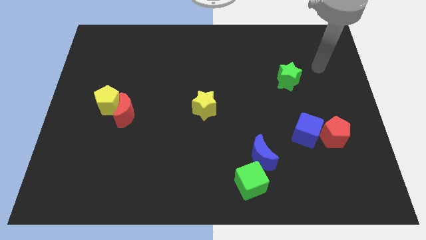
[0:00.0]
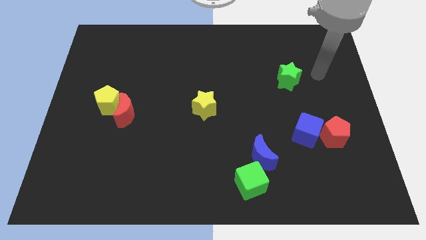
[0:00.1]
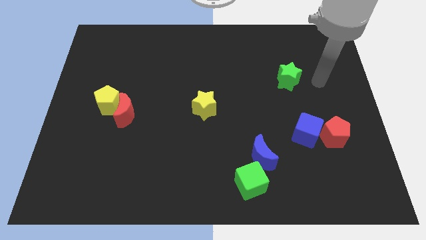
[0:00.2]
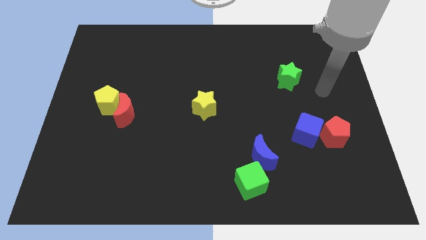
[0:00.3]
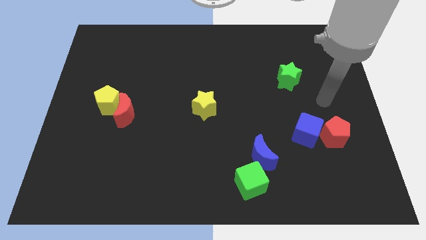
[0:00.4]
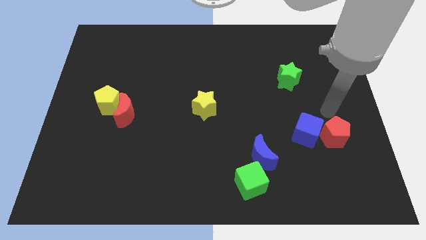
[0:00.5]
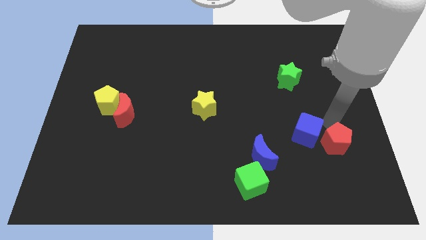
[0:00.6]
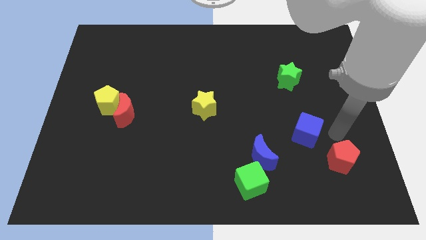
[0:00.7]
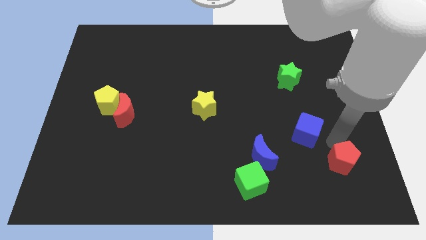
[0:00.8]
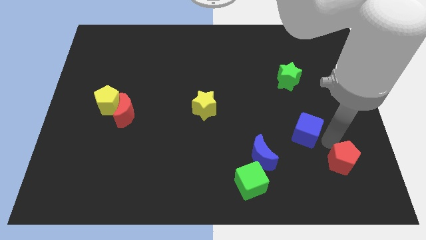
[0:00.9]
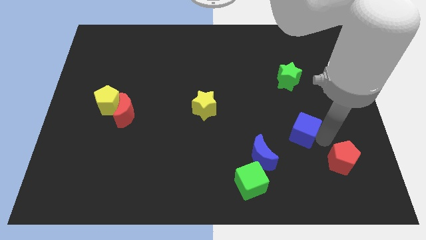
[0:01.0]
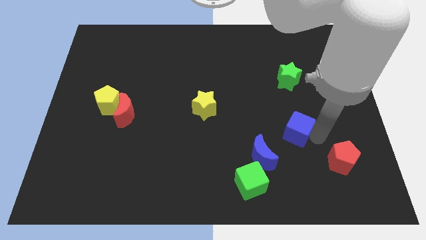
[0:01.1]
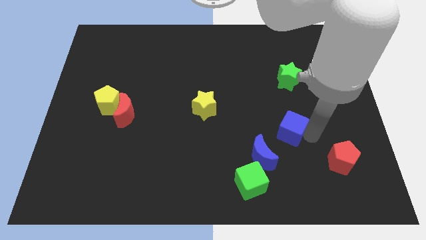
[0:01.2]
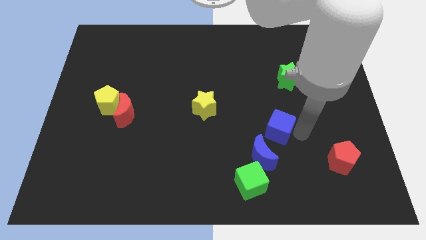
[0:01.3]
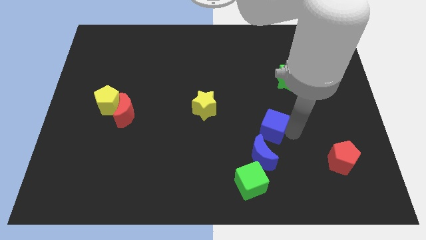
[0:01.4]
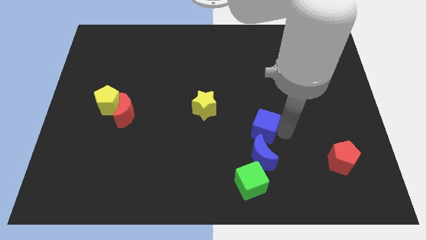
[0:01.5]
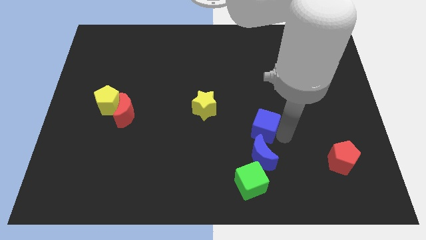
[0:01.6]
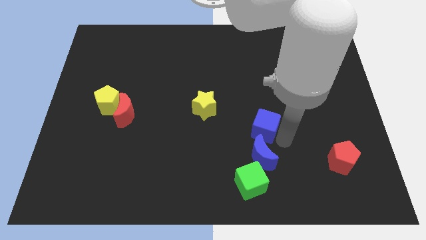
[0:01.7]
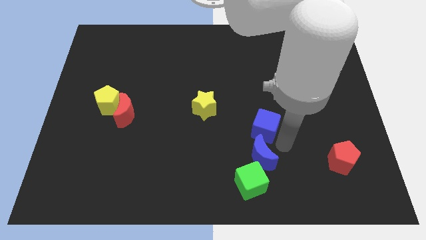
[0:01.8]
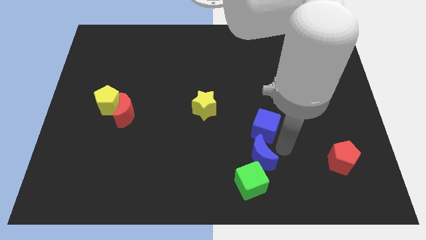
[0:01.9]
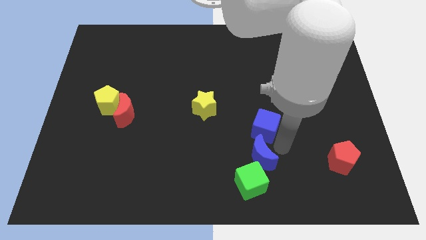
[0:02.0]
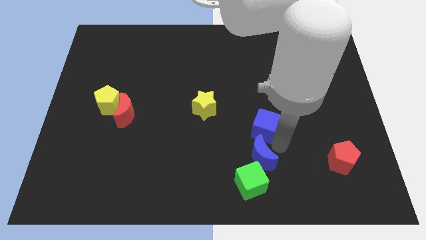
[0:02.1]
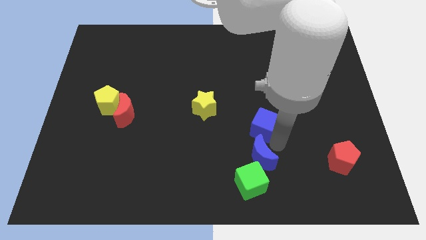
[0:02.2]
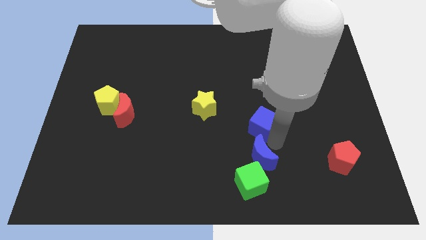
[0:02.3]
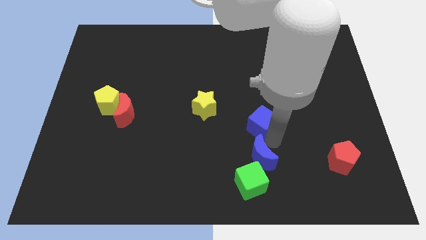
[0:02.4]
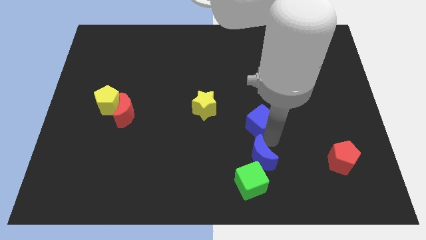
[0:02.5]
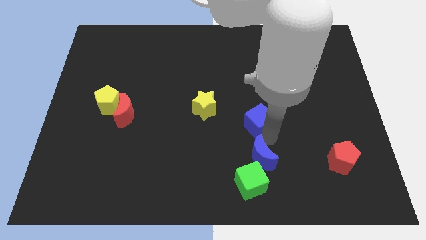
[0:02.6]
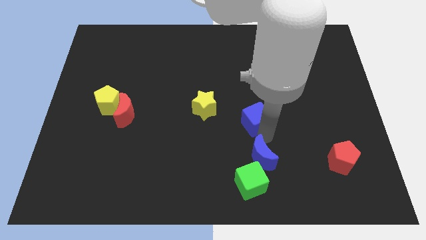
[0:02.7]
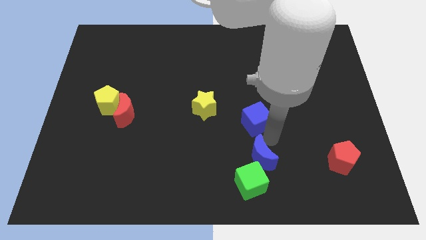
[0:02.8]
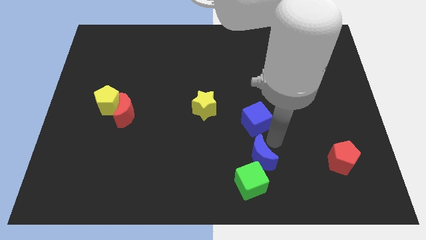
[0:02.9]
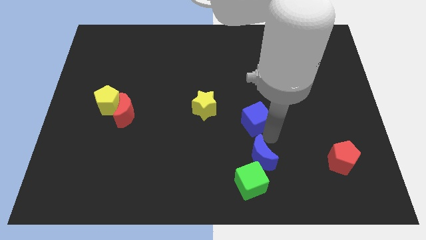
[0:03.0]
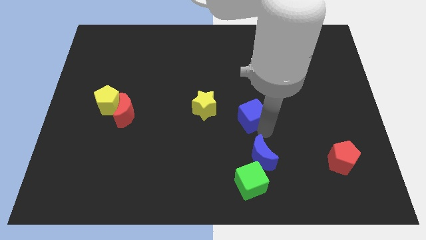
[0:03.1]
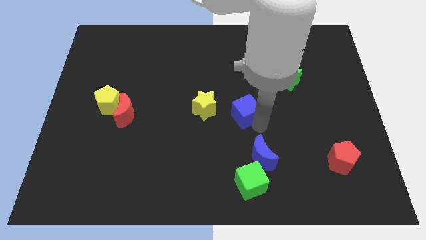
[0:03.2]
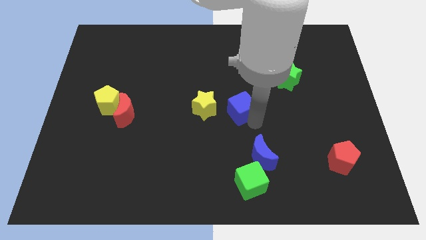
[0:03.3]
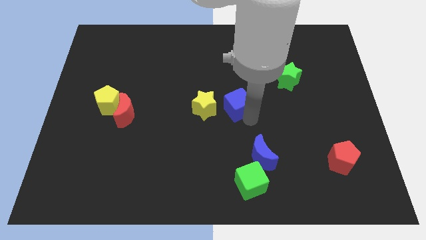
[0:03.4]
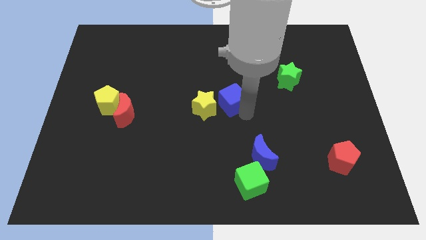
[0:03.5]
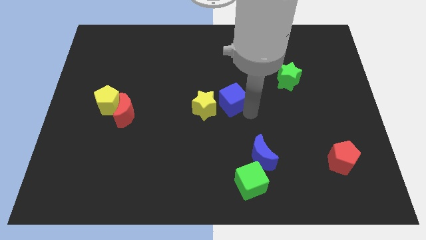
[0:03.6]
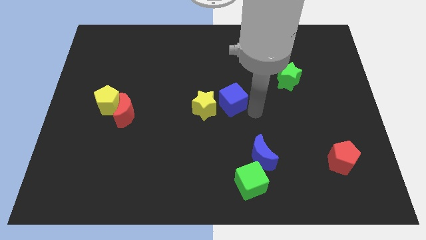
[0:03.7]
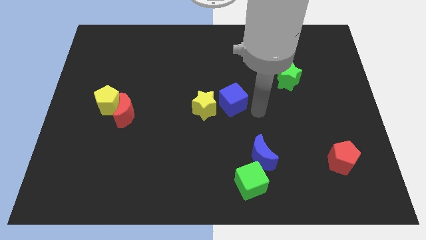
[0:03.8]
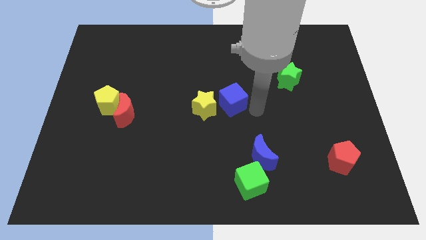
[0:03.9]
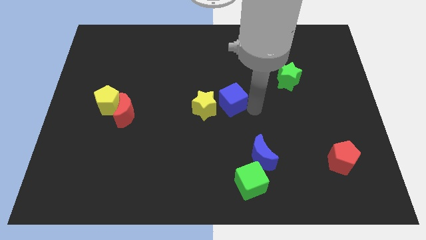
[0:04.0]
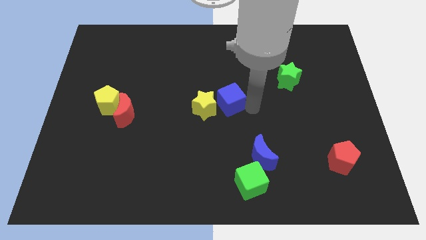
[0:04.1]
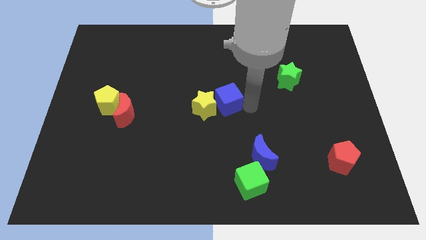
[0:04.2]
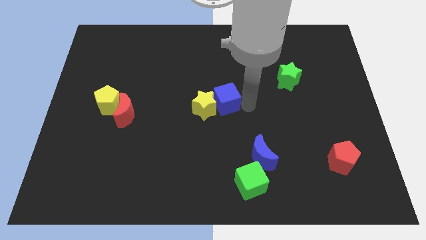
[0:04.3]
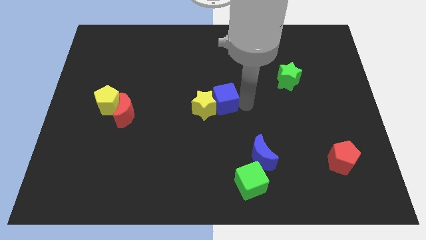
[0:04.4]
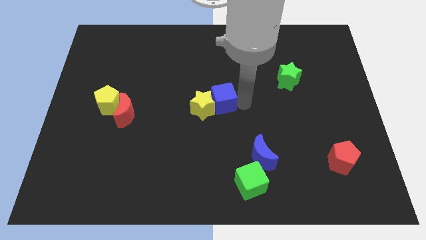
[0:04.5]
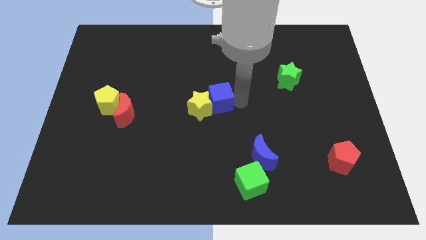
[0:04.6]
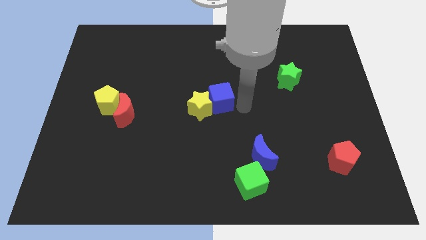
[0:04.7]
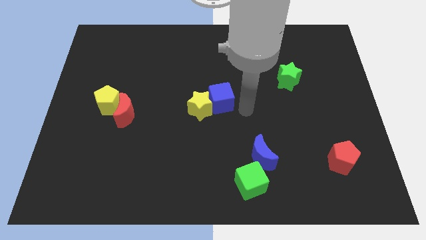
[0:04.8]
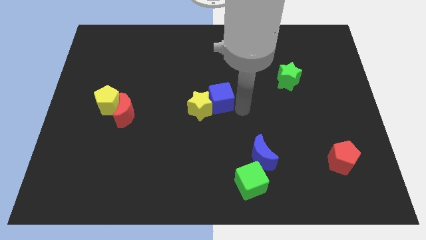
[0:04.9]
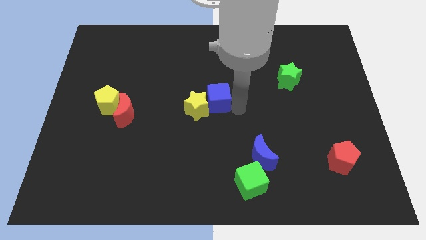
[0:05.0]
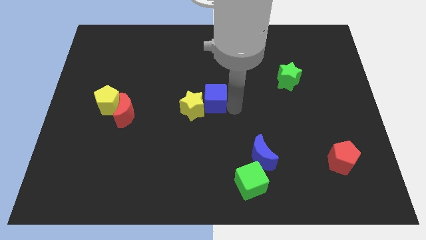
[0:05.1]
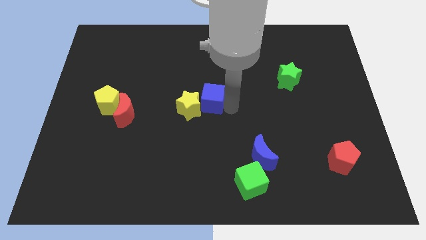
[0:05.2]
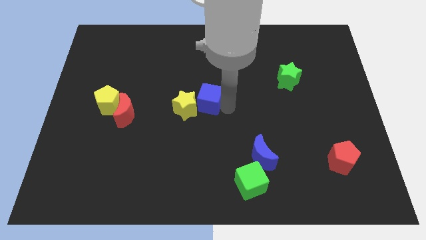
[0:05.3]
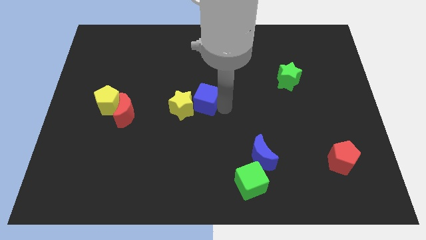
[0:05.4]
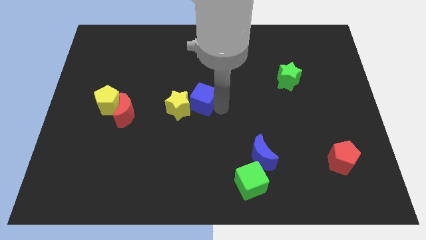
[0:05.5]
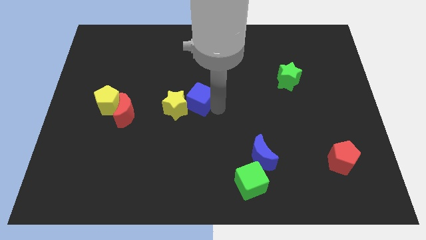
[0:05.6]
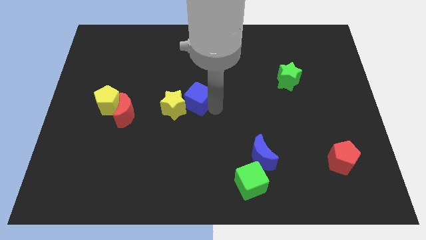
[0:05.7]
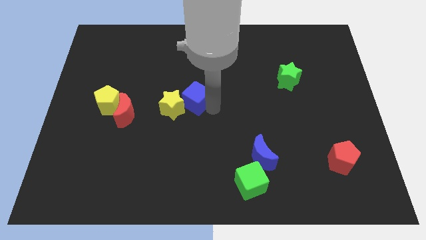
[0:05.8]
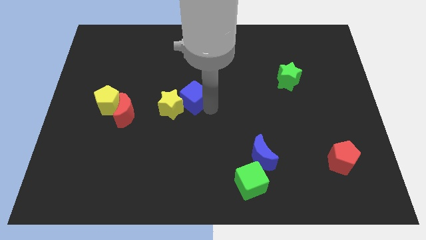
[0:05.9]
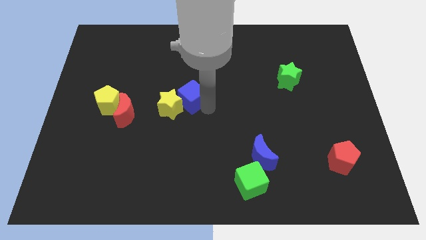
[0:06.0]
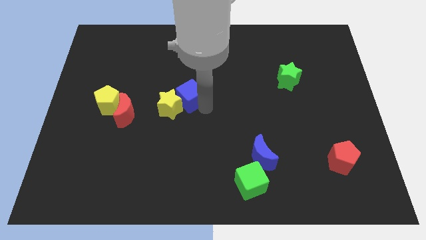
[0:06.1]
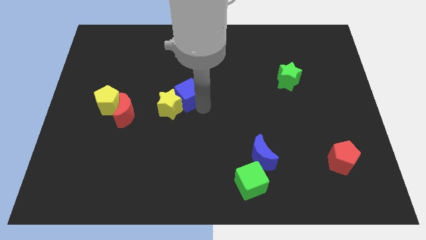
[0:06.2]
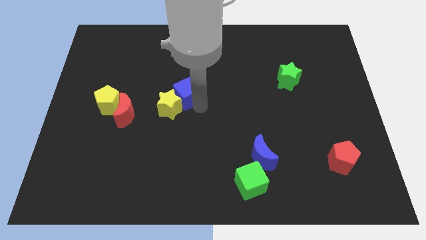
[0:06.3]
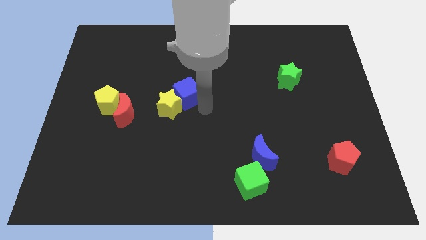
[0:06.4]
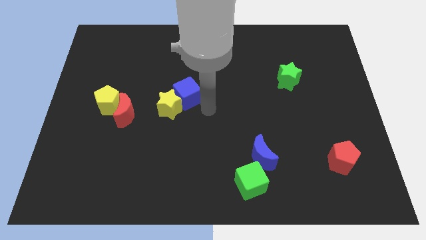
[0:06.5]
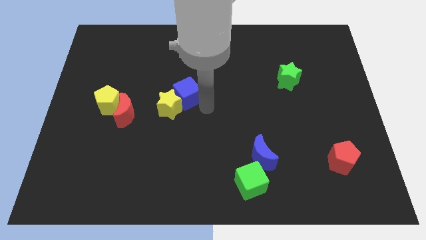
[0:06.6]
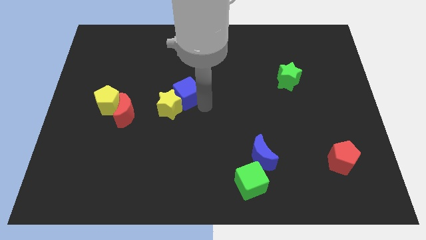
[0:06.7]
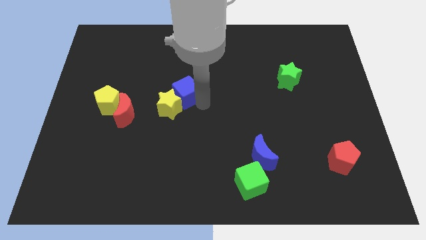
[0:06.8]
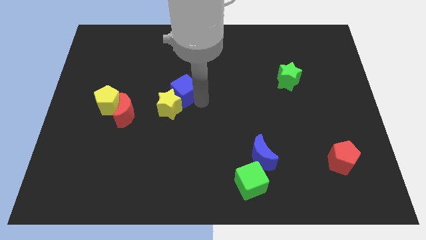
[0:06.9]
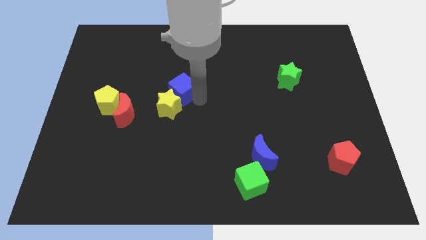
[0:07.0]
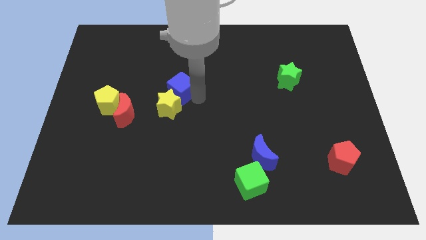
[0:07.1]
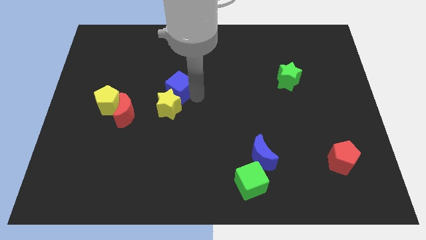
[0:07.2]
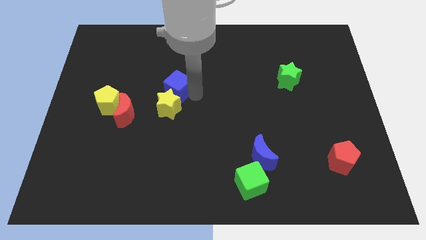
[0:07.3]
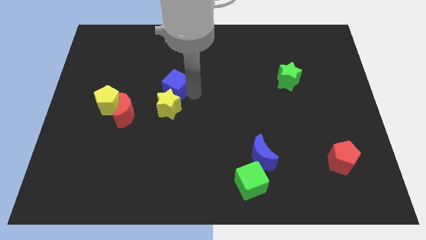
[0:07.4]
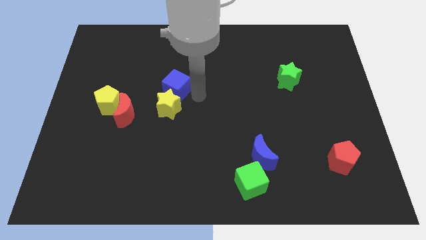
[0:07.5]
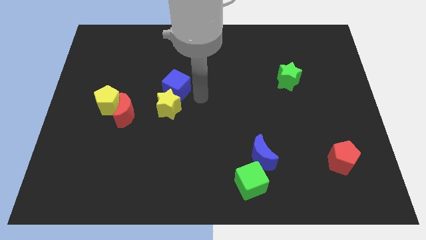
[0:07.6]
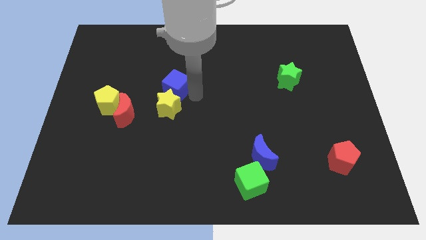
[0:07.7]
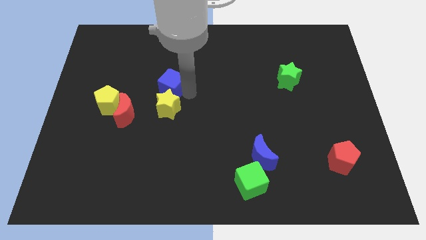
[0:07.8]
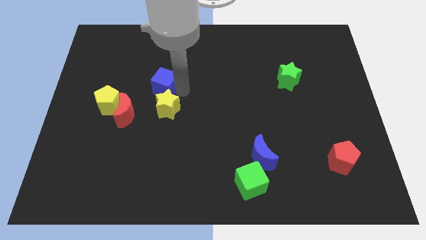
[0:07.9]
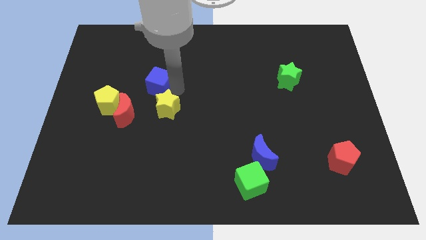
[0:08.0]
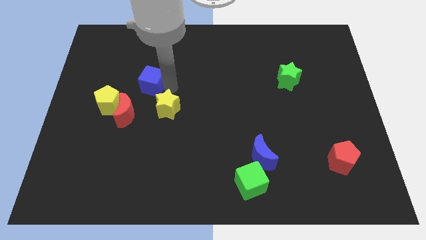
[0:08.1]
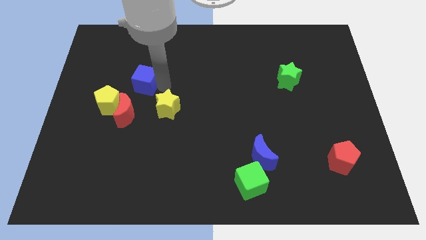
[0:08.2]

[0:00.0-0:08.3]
push the blue cube to the top side of the red moon
